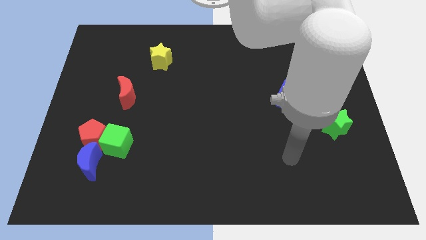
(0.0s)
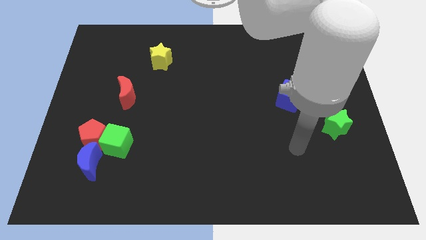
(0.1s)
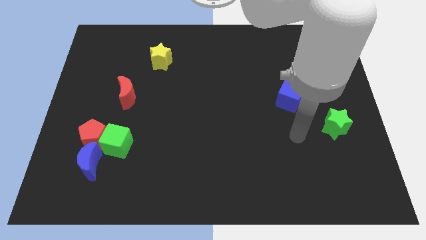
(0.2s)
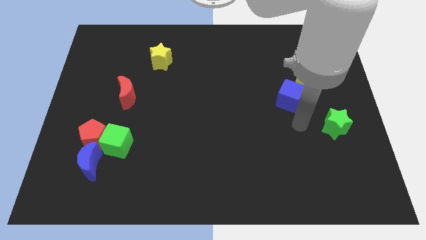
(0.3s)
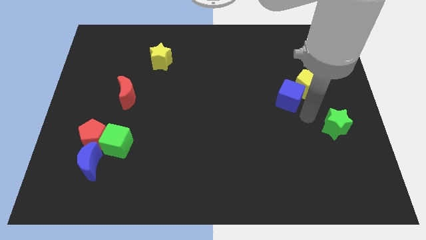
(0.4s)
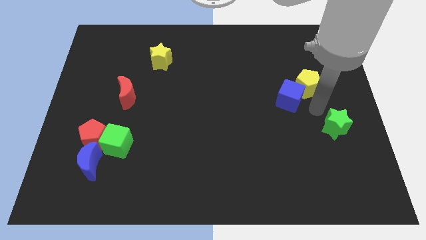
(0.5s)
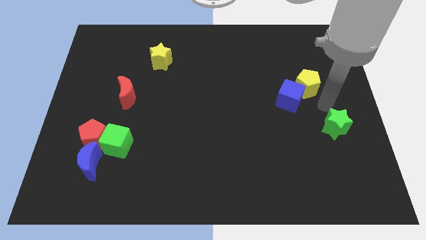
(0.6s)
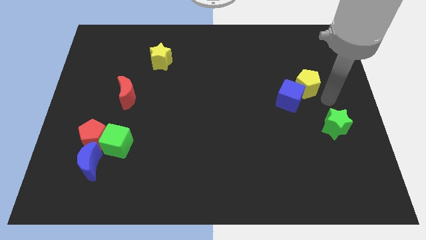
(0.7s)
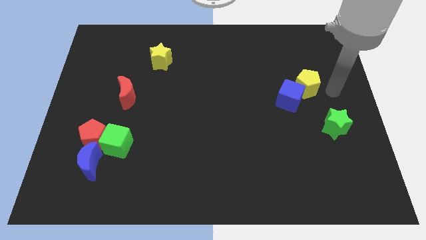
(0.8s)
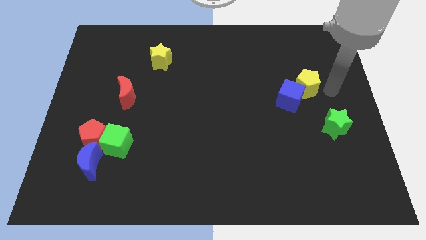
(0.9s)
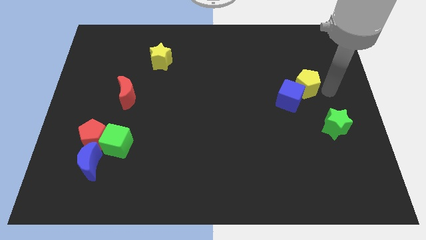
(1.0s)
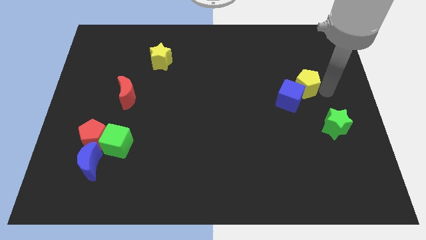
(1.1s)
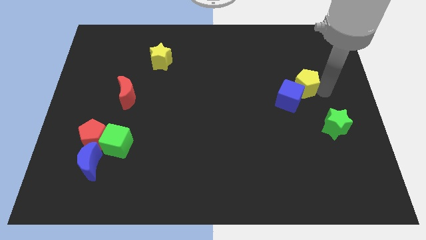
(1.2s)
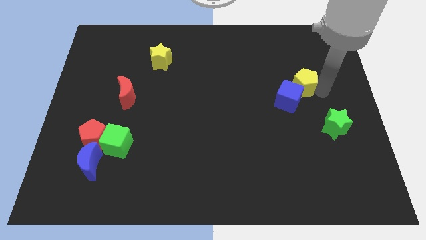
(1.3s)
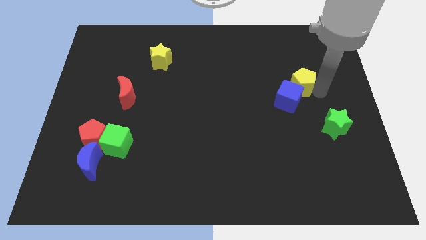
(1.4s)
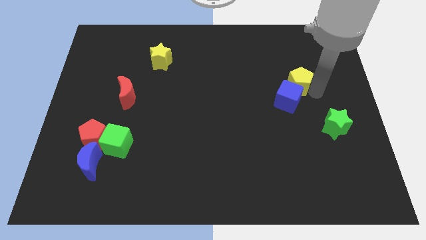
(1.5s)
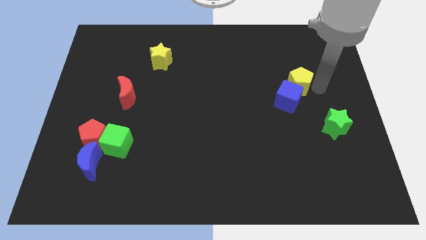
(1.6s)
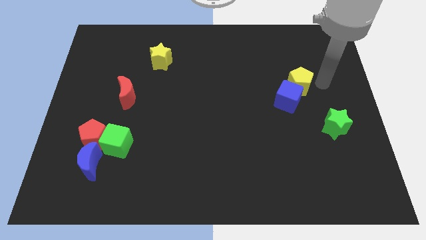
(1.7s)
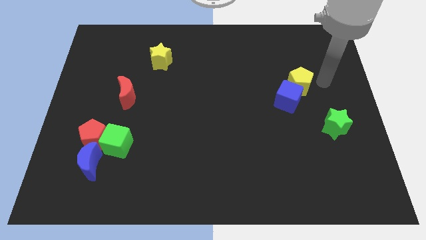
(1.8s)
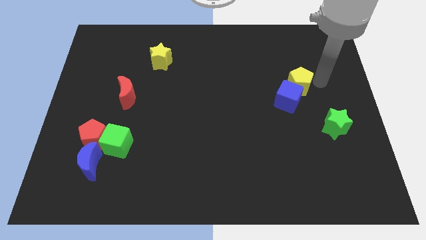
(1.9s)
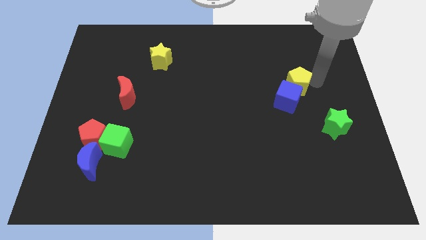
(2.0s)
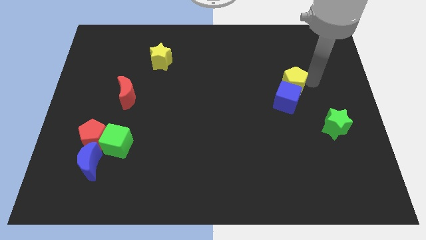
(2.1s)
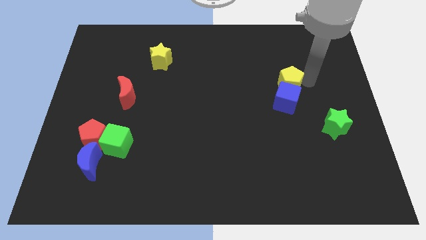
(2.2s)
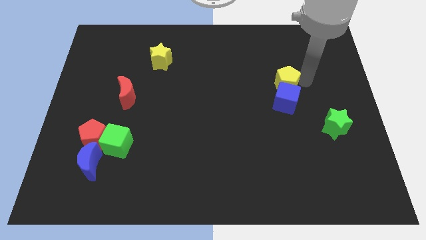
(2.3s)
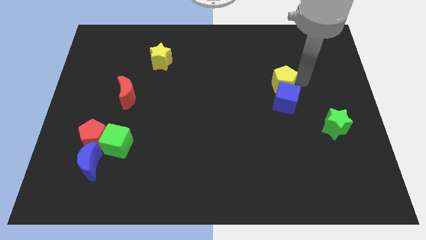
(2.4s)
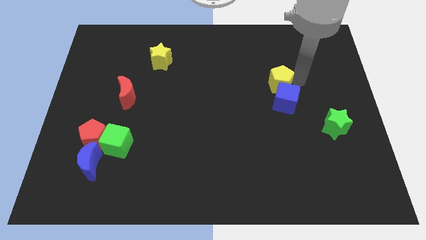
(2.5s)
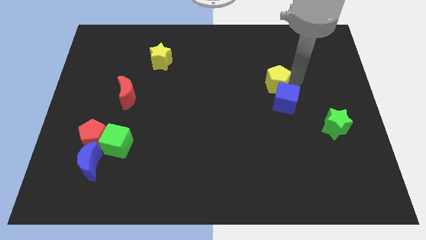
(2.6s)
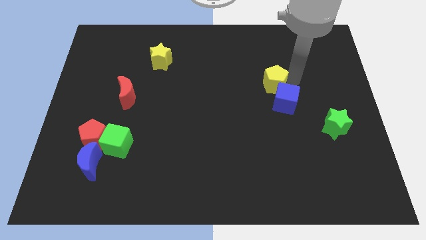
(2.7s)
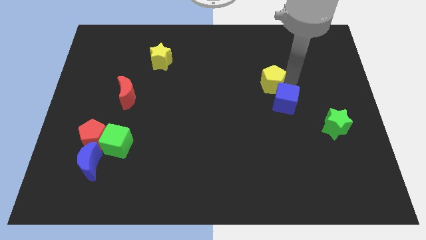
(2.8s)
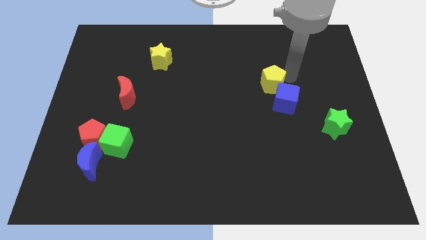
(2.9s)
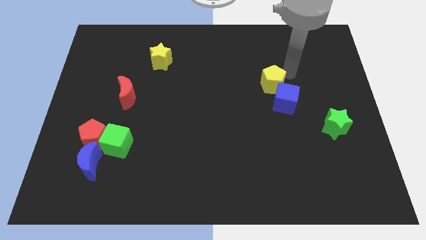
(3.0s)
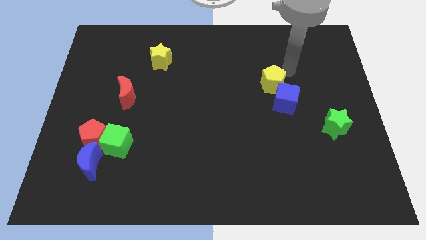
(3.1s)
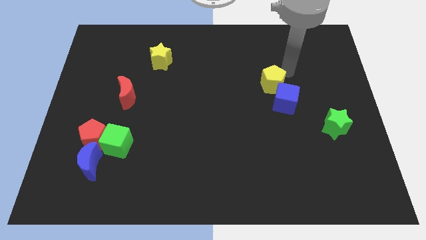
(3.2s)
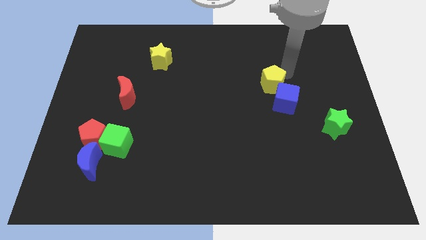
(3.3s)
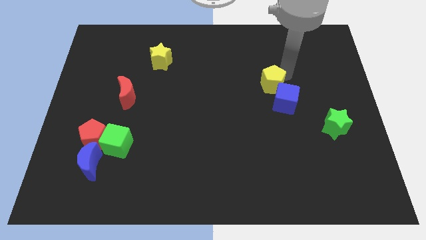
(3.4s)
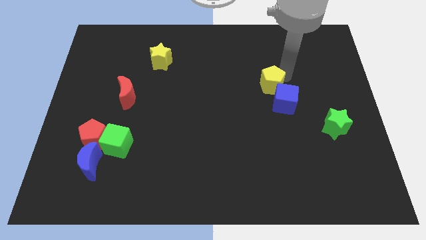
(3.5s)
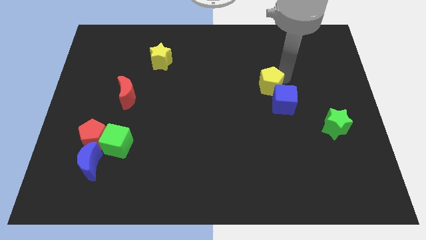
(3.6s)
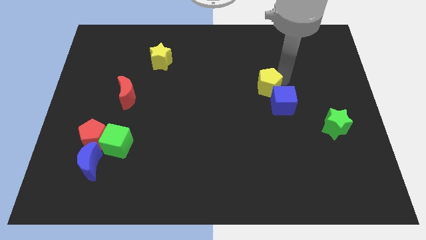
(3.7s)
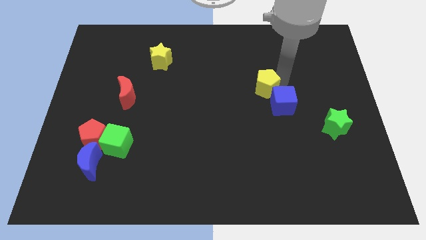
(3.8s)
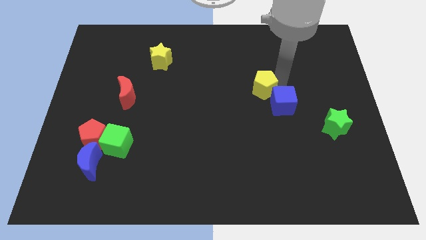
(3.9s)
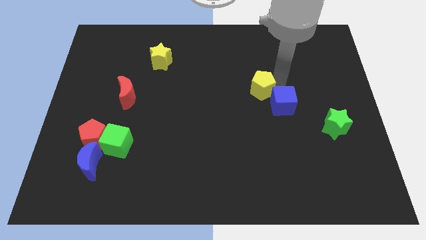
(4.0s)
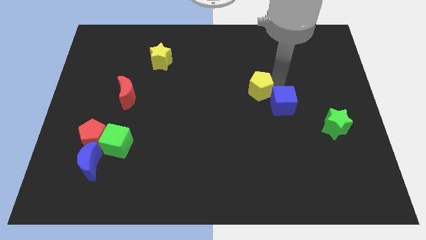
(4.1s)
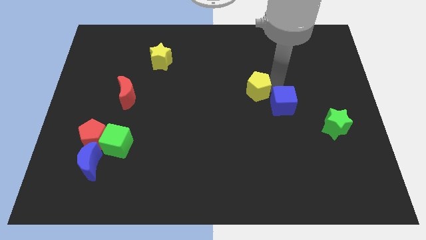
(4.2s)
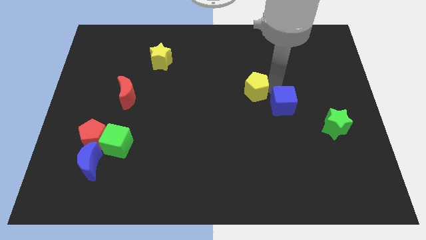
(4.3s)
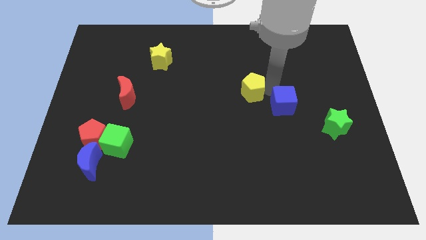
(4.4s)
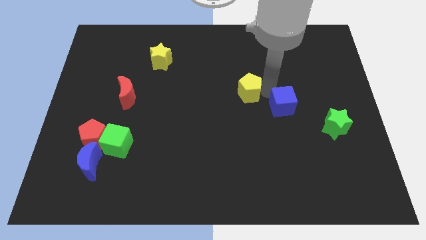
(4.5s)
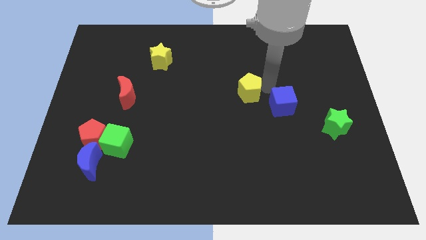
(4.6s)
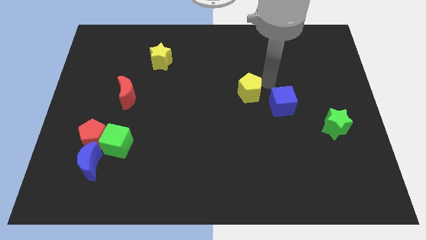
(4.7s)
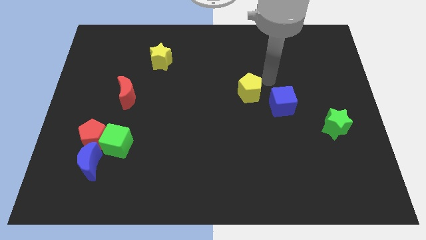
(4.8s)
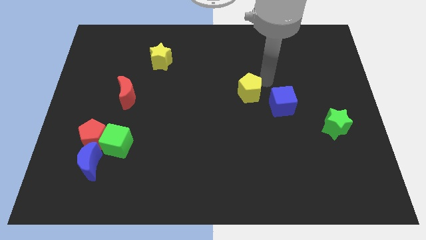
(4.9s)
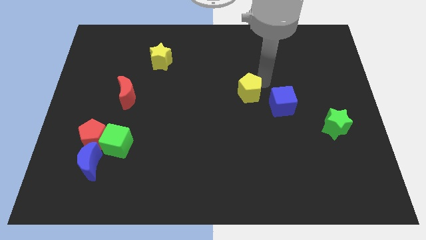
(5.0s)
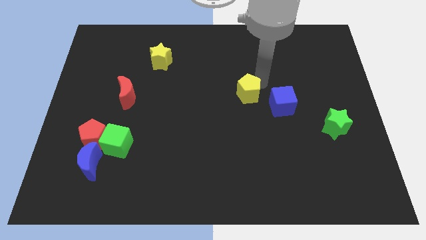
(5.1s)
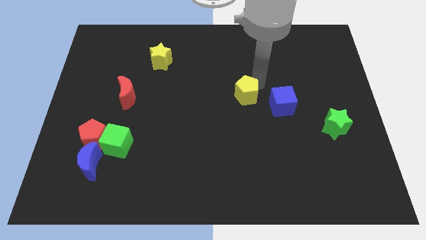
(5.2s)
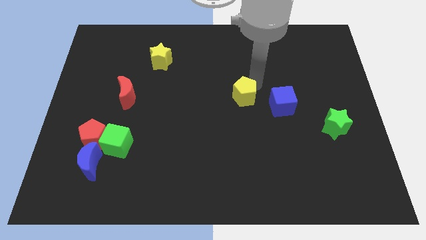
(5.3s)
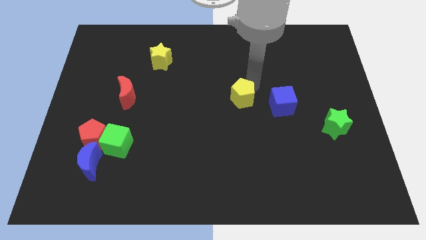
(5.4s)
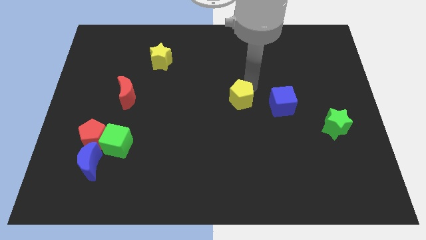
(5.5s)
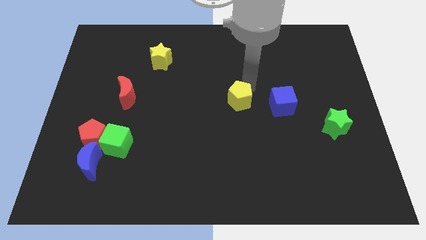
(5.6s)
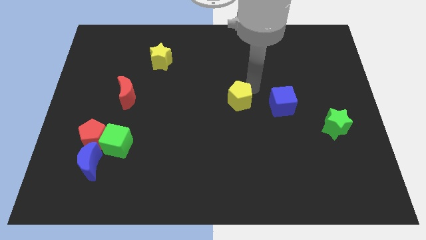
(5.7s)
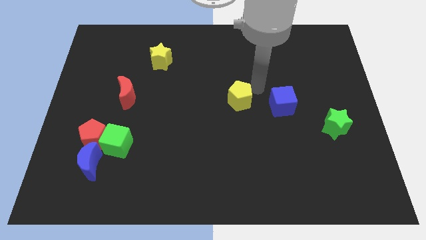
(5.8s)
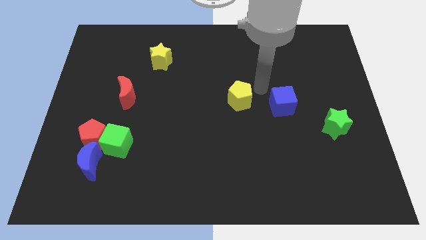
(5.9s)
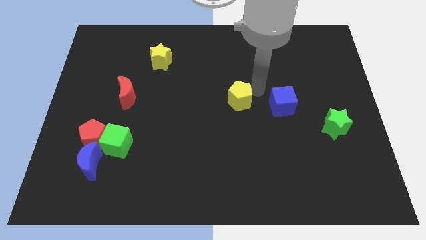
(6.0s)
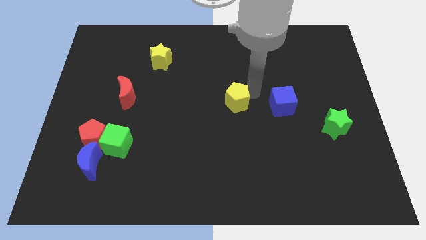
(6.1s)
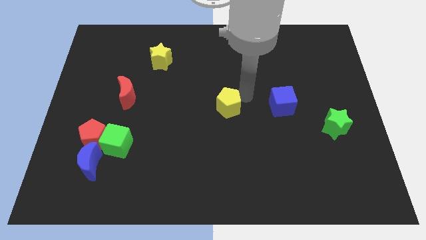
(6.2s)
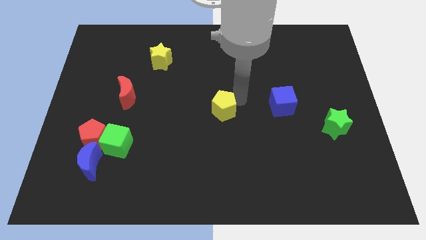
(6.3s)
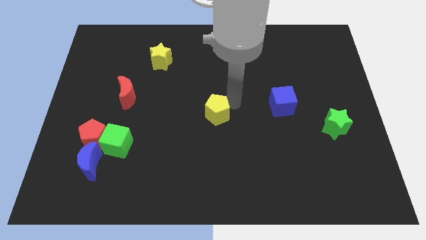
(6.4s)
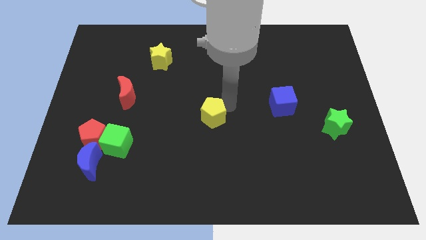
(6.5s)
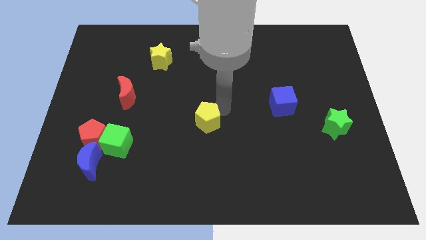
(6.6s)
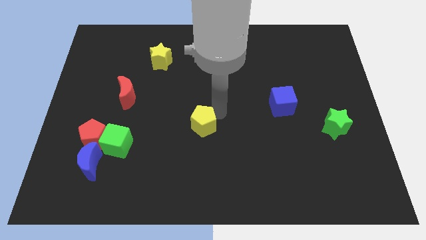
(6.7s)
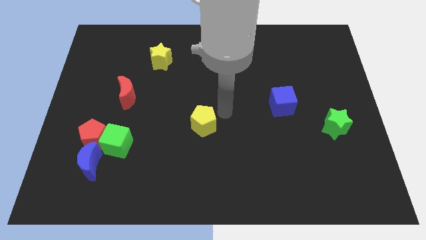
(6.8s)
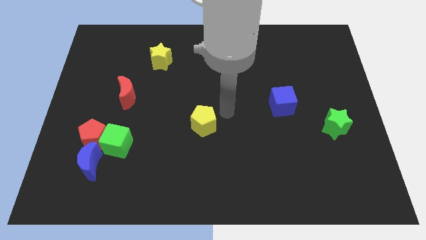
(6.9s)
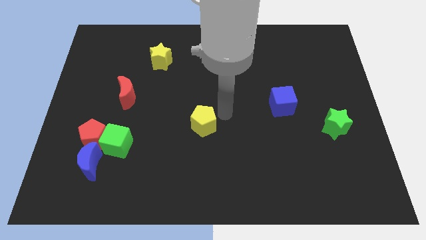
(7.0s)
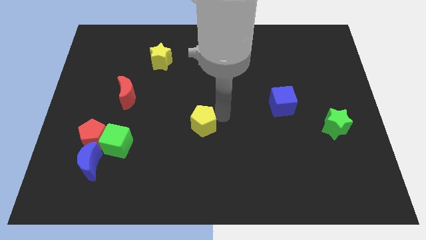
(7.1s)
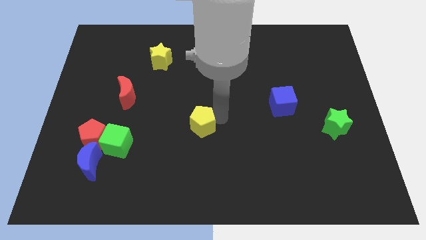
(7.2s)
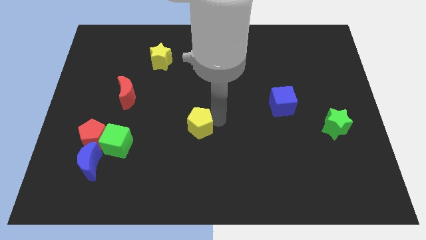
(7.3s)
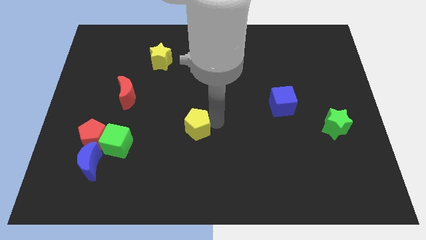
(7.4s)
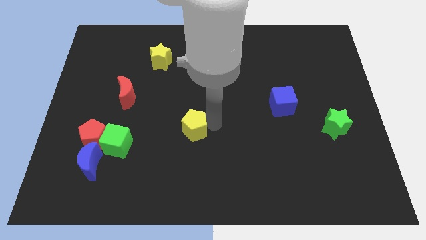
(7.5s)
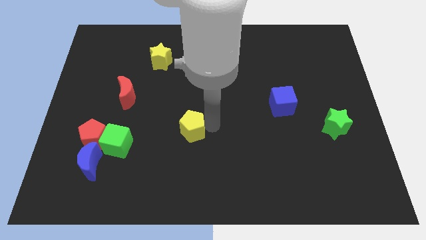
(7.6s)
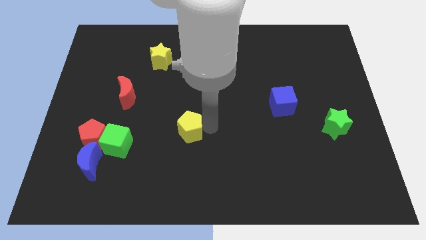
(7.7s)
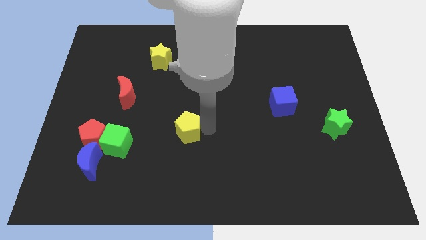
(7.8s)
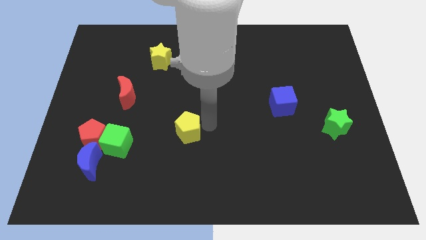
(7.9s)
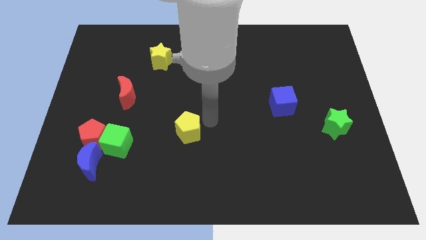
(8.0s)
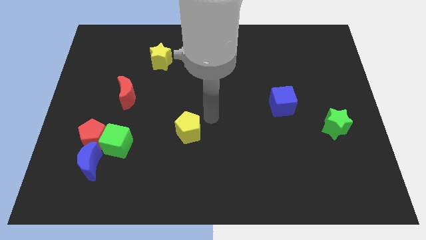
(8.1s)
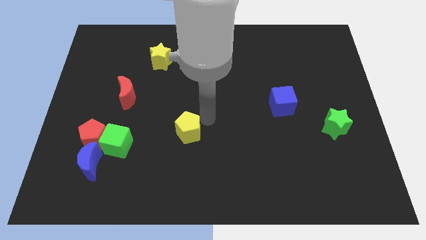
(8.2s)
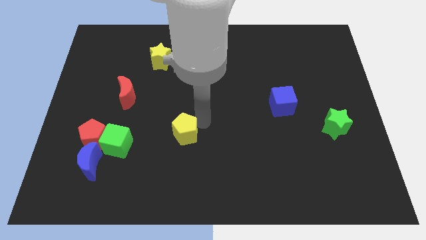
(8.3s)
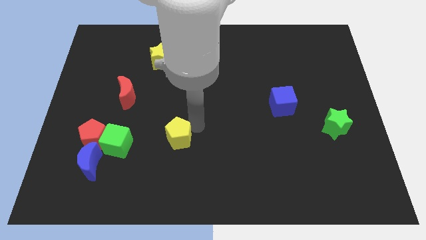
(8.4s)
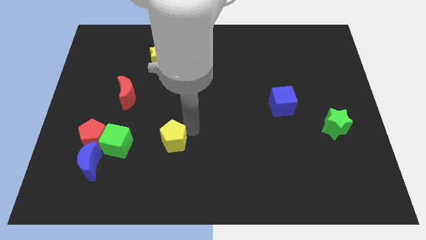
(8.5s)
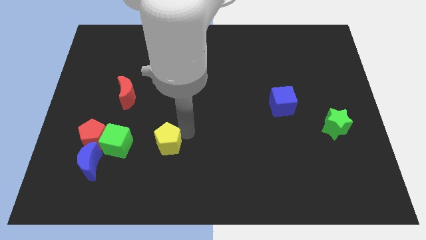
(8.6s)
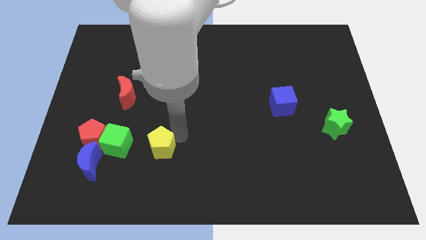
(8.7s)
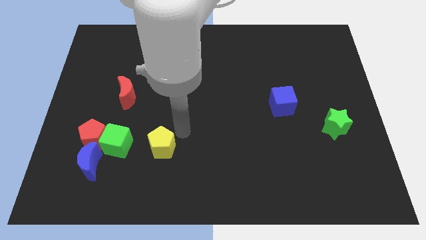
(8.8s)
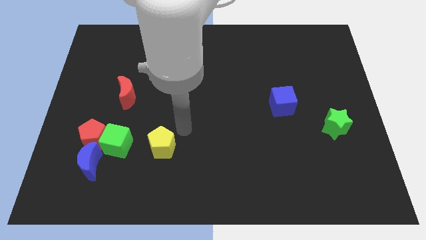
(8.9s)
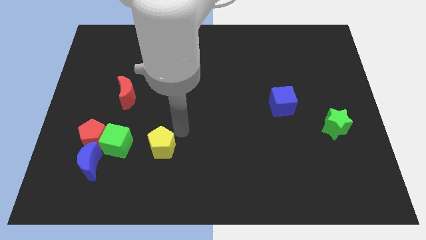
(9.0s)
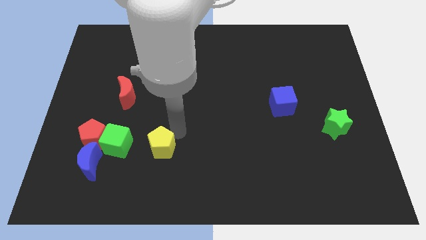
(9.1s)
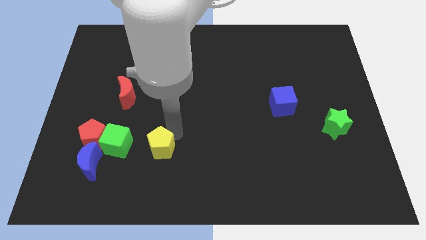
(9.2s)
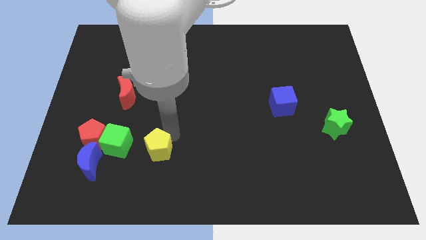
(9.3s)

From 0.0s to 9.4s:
push the yellow pentagon just right of the blue moon
